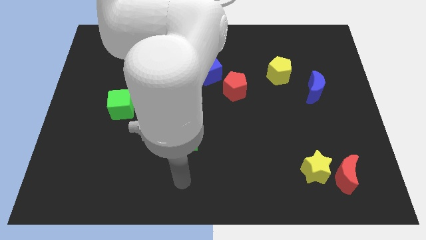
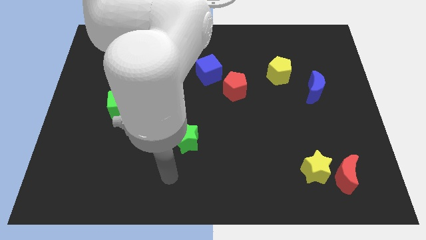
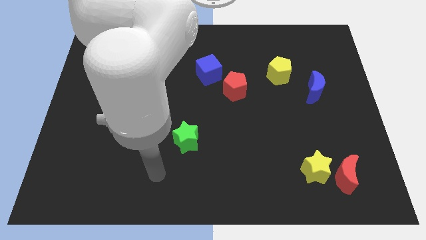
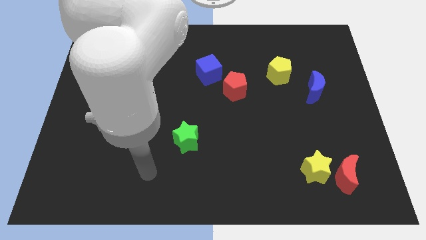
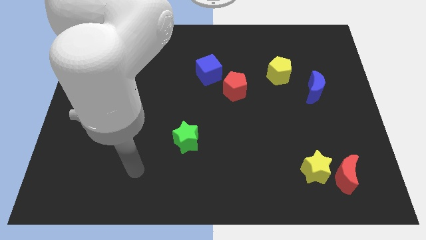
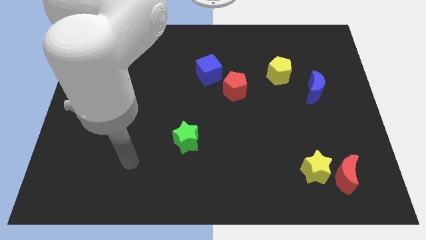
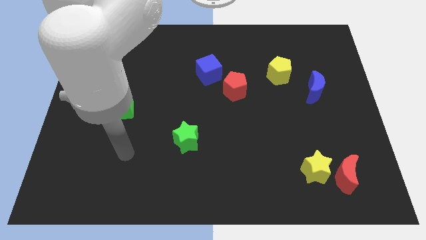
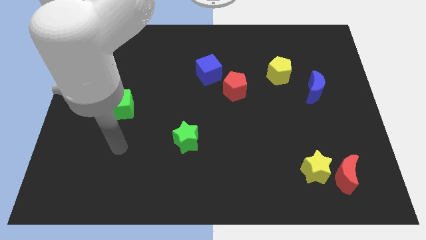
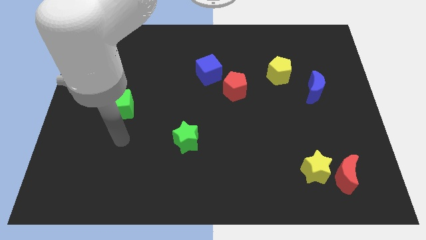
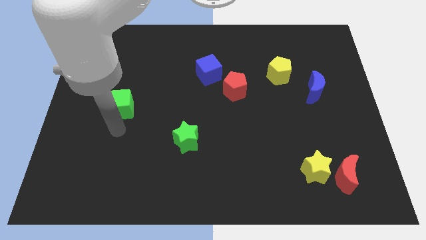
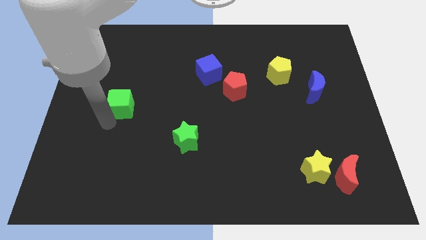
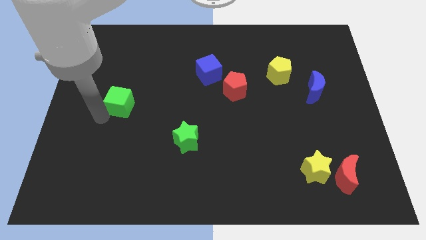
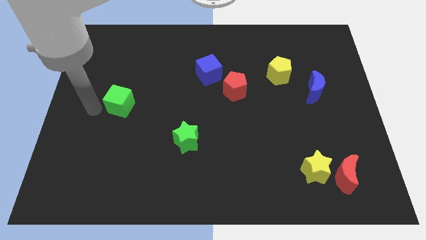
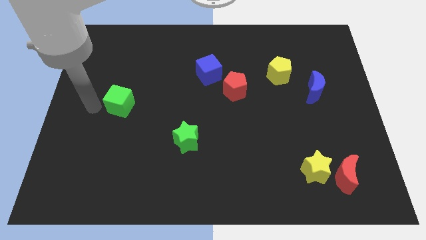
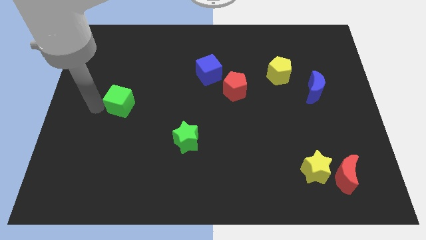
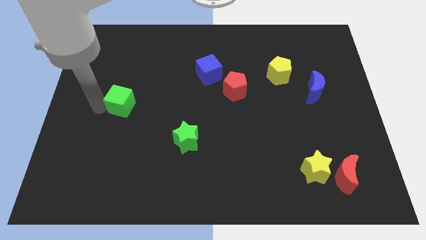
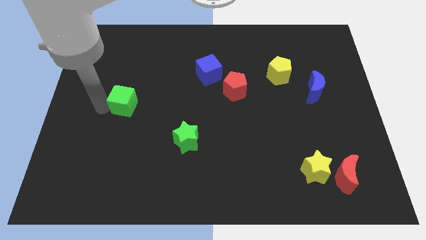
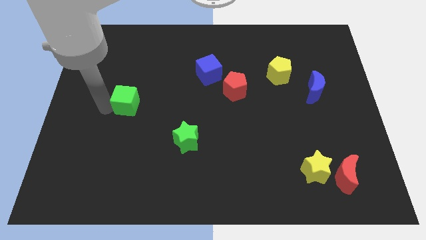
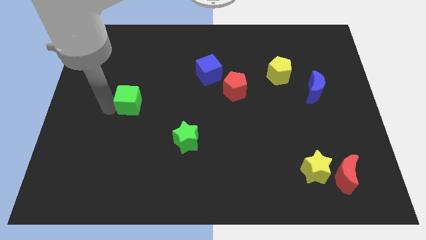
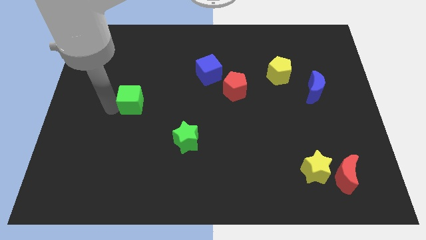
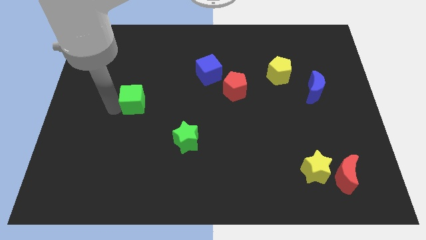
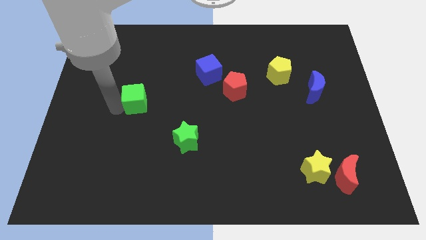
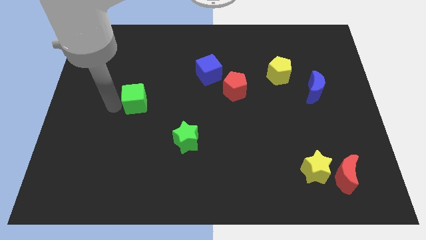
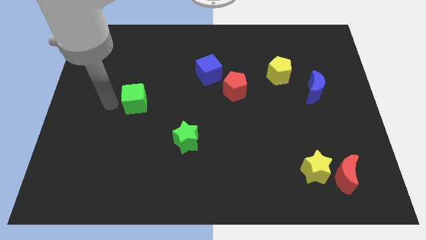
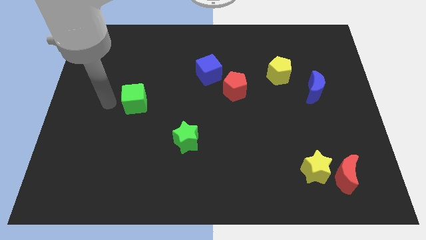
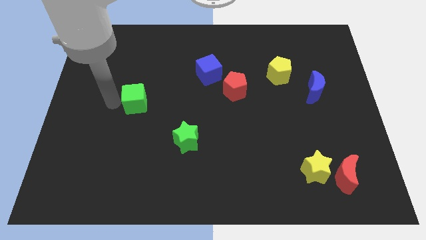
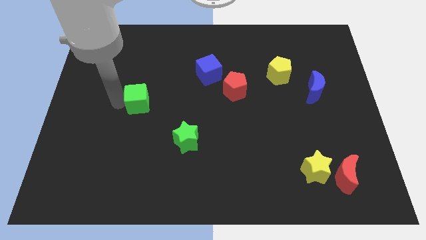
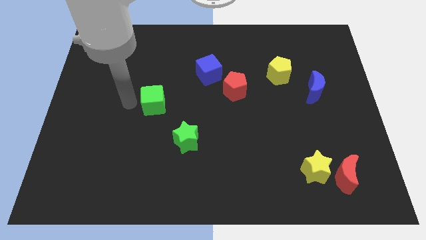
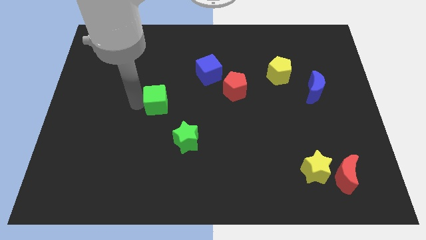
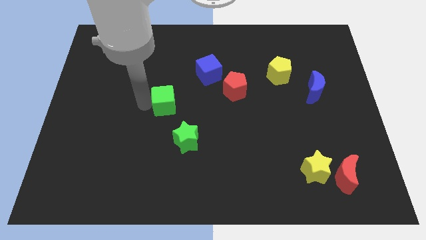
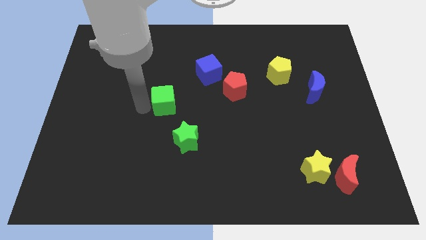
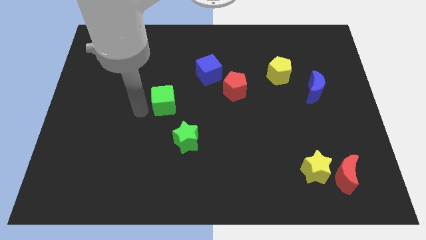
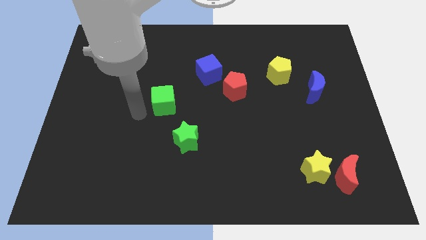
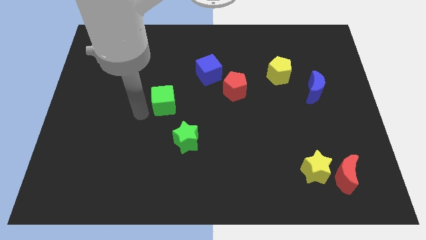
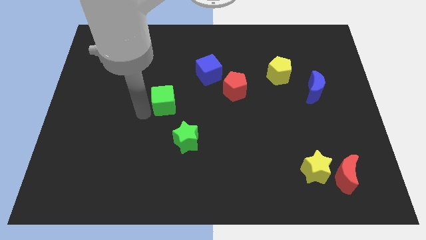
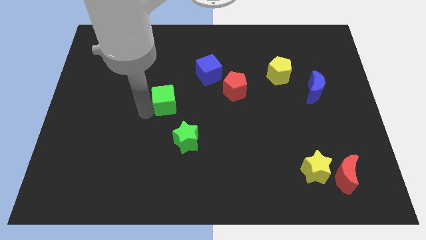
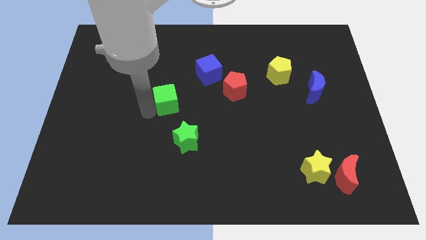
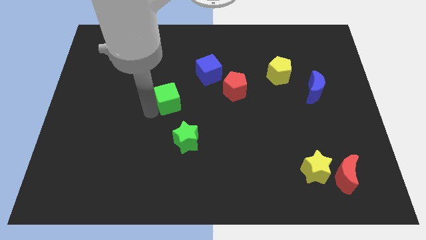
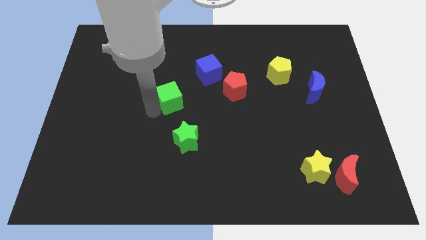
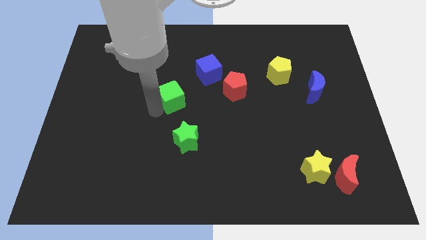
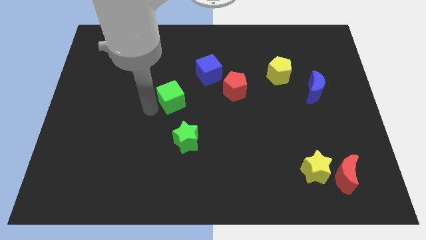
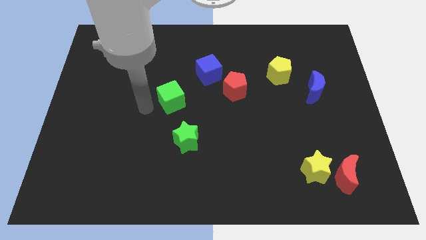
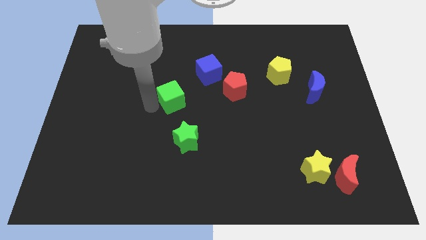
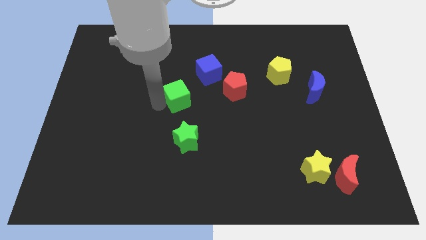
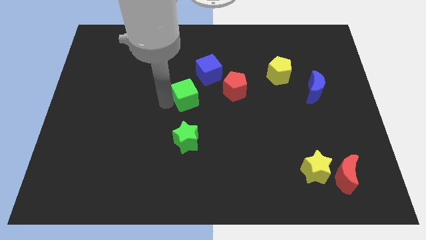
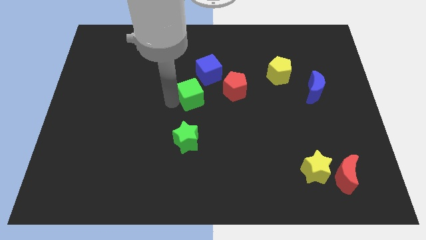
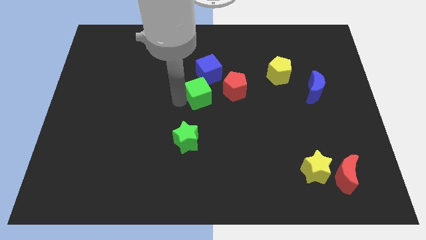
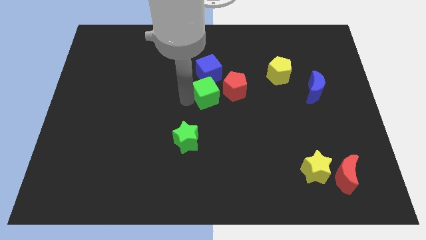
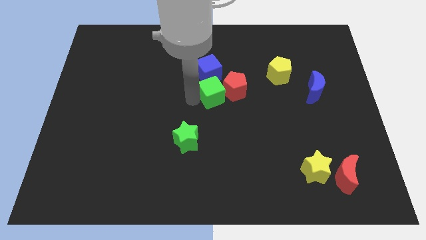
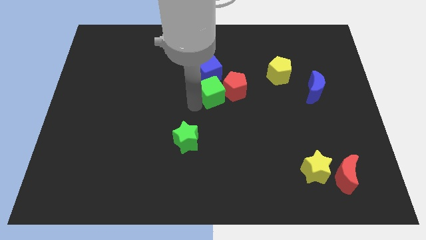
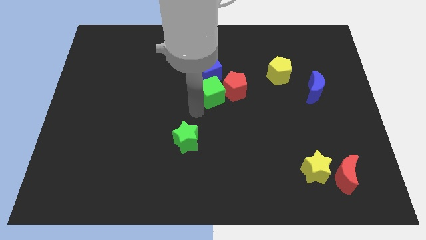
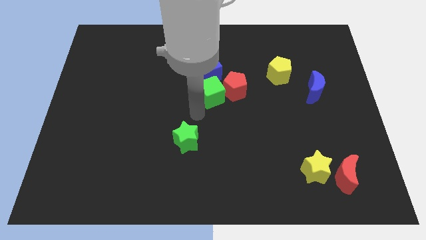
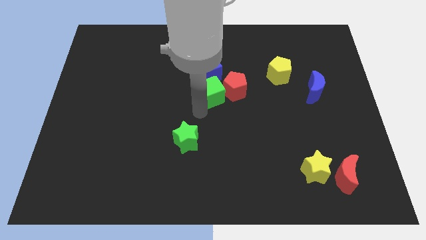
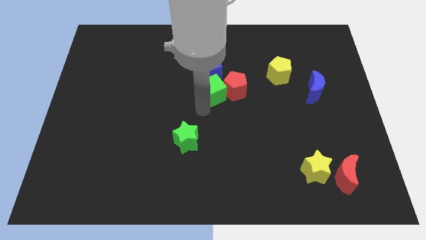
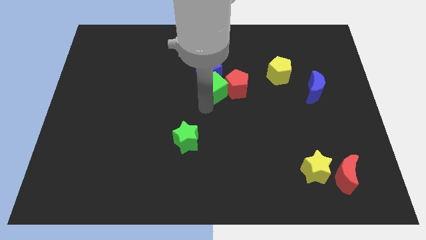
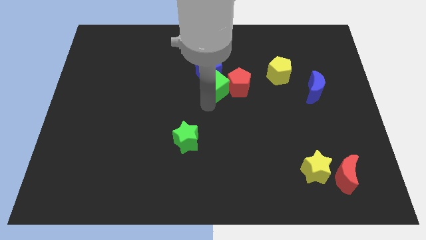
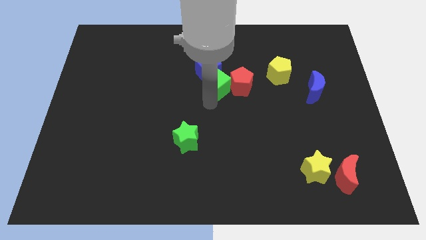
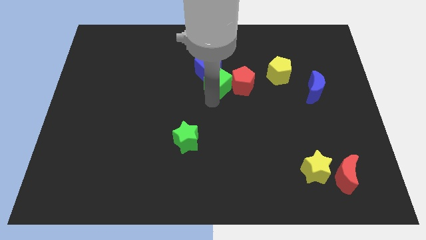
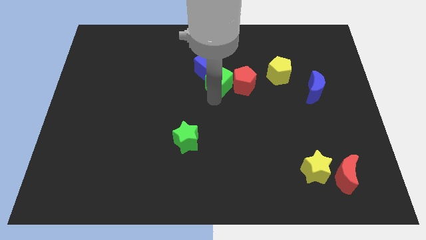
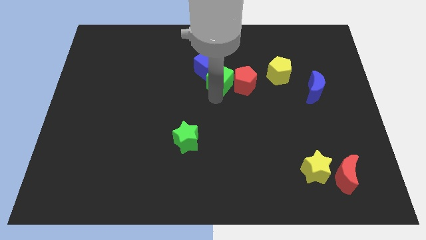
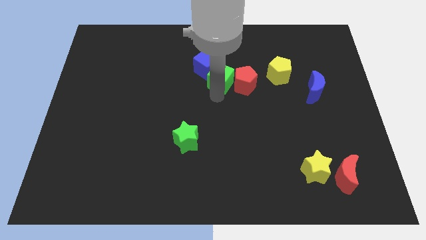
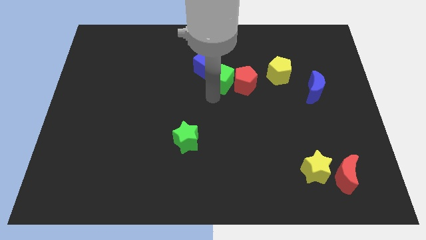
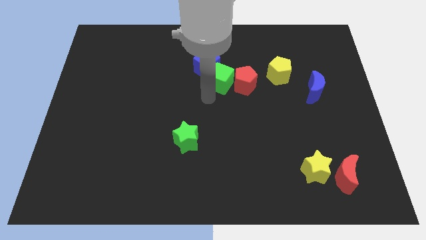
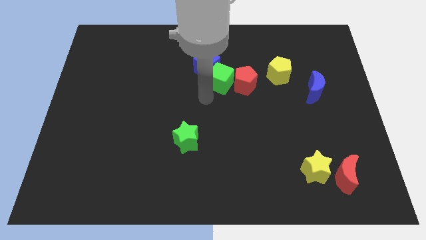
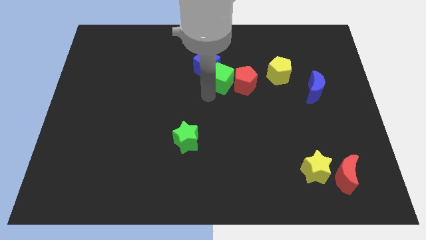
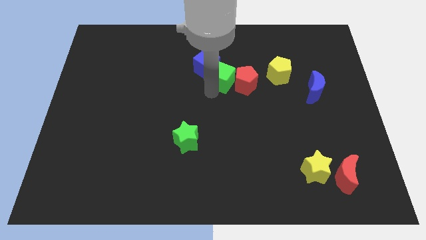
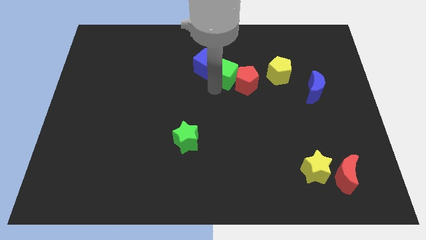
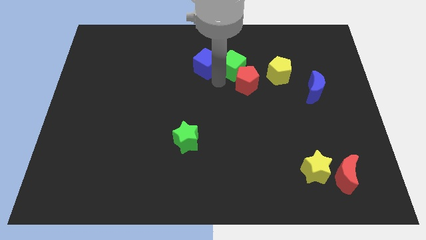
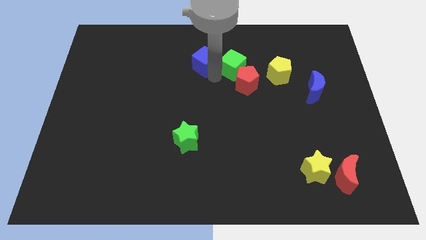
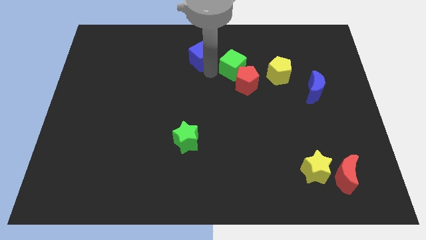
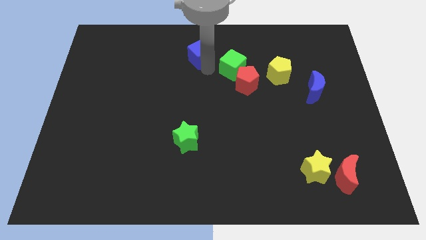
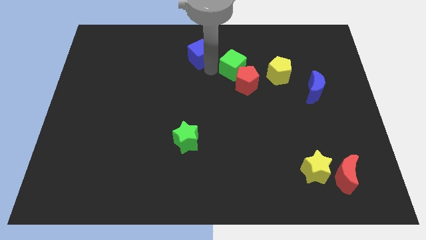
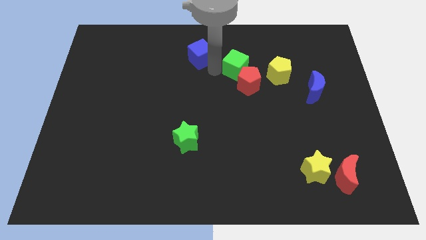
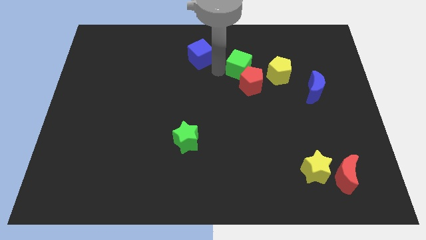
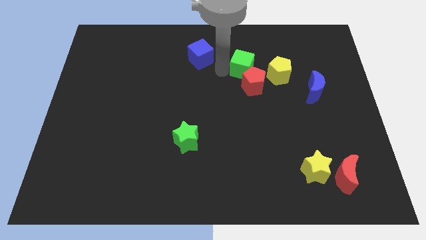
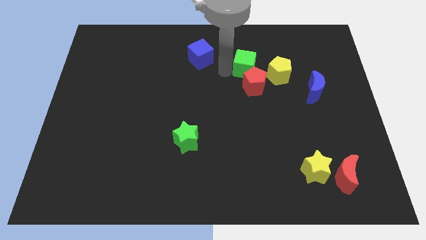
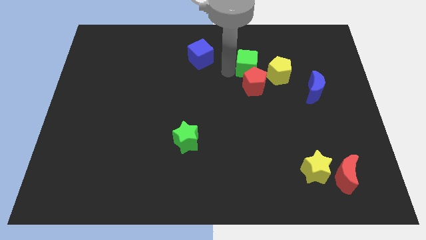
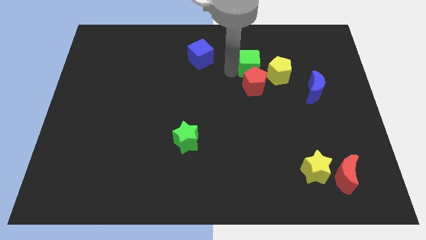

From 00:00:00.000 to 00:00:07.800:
slide the green cube to the top right of the red pentagon

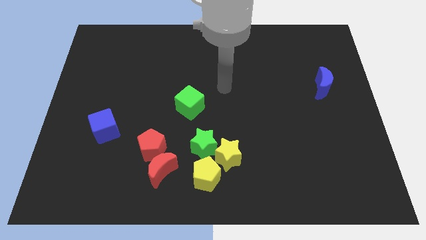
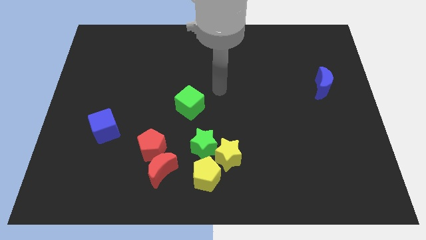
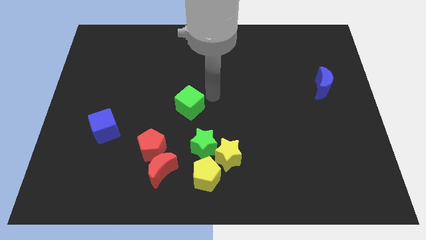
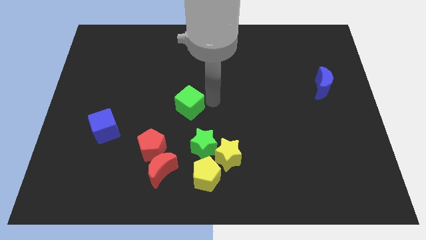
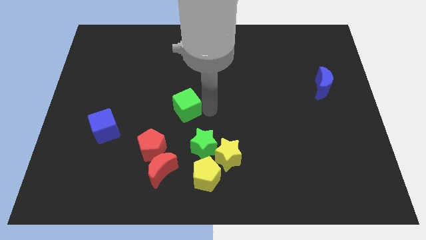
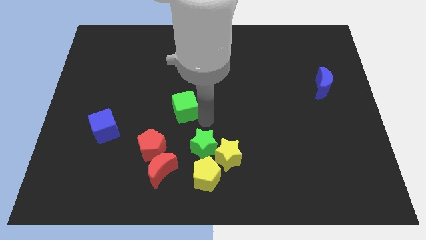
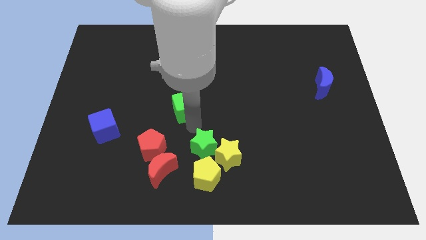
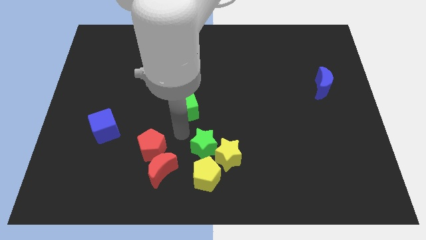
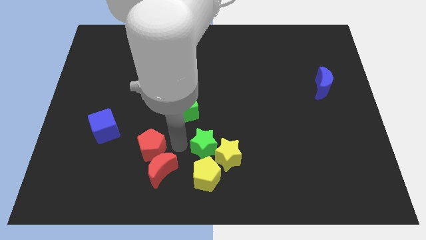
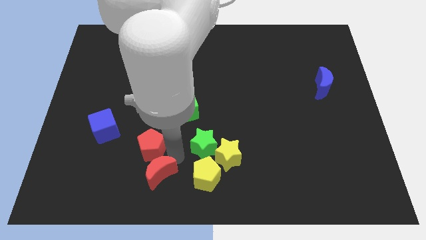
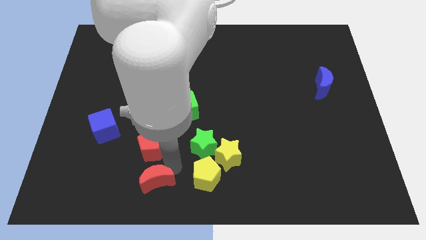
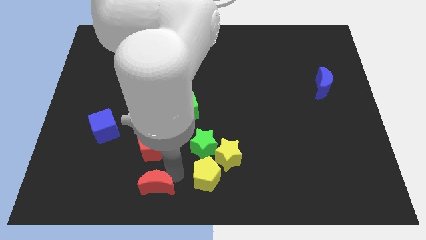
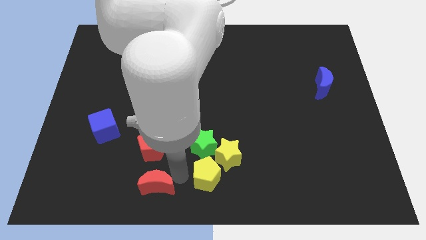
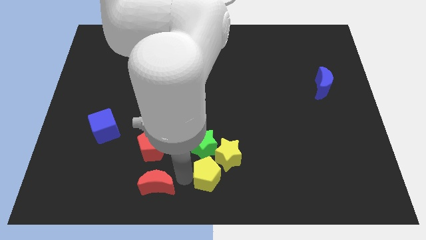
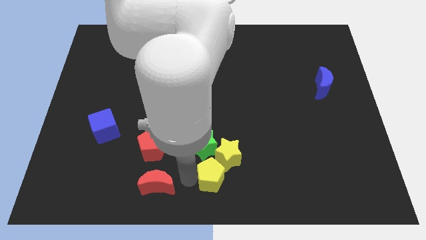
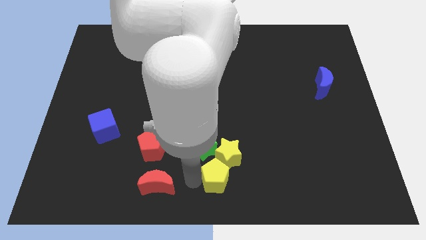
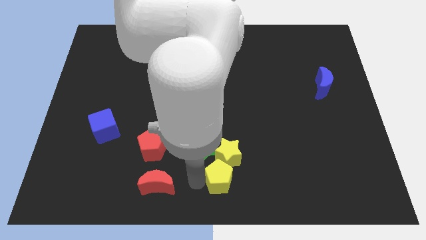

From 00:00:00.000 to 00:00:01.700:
push the yellow pentagon to the bottom right side of the yellow star
